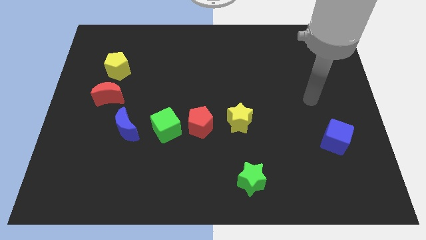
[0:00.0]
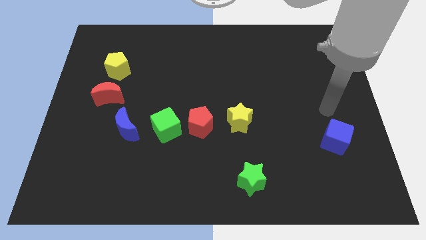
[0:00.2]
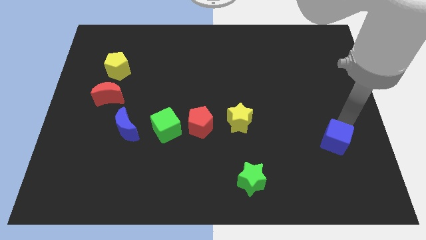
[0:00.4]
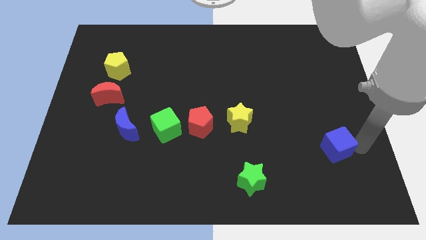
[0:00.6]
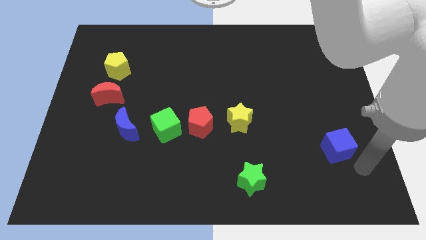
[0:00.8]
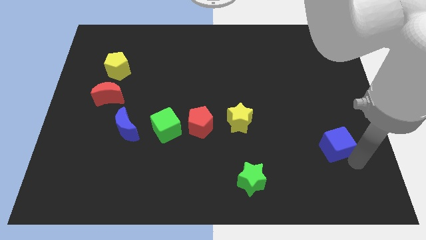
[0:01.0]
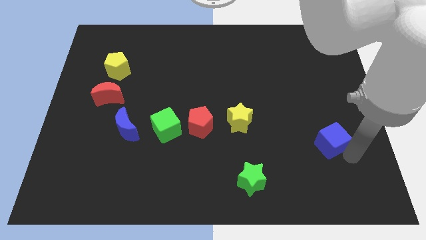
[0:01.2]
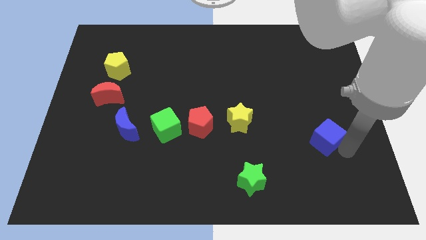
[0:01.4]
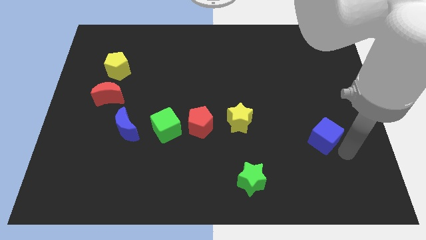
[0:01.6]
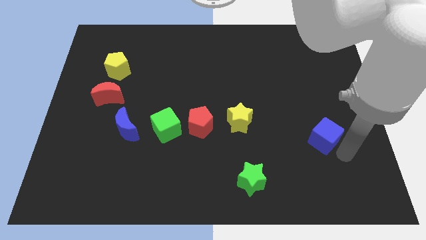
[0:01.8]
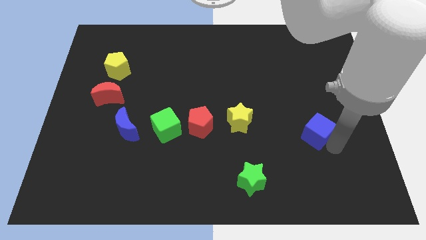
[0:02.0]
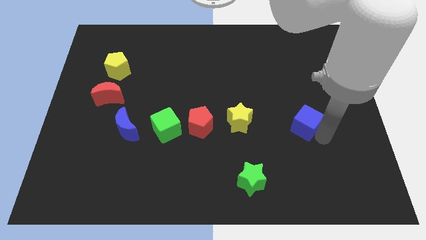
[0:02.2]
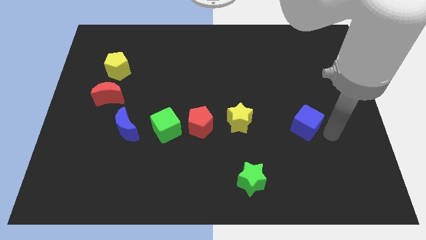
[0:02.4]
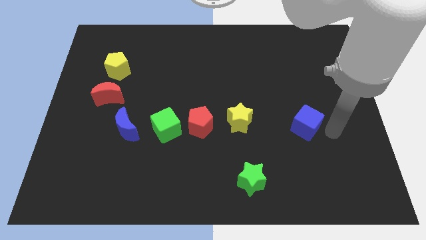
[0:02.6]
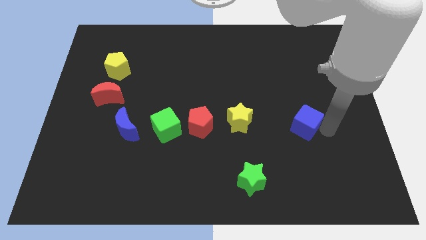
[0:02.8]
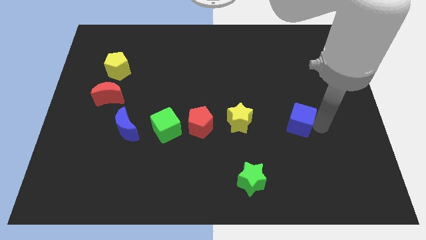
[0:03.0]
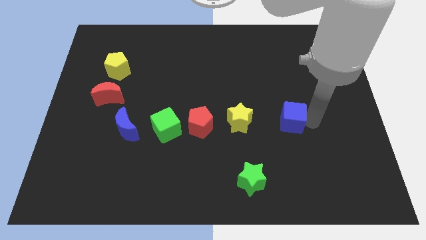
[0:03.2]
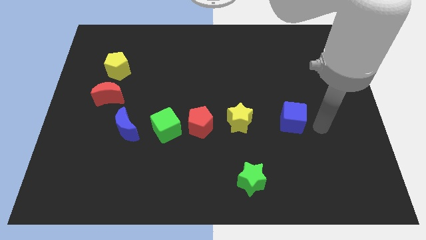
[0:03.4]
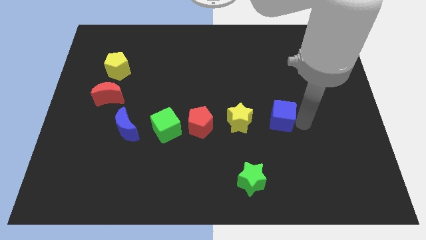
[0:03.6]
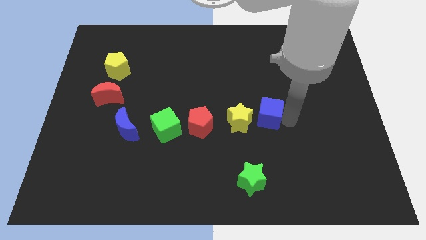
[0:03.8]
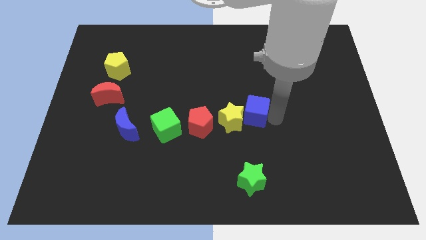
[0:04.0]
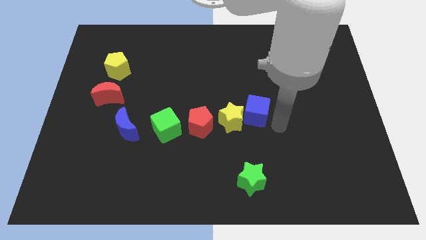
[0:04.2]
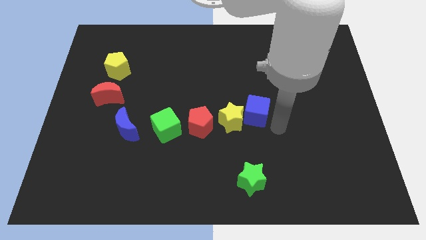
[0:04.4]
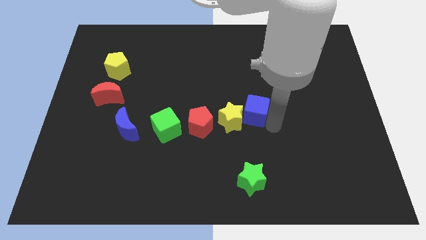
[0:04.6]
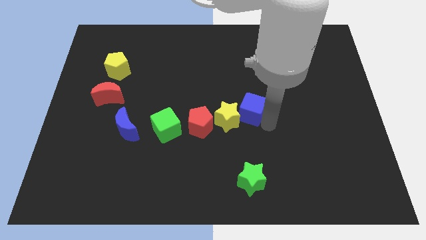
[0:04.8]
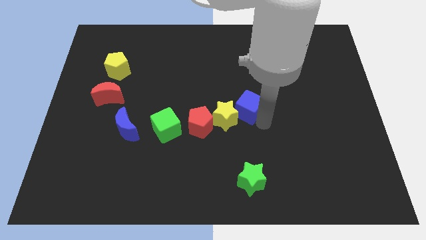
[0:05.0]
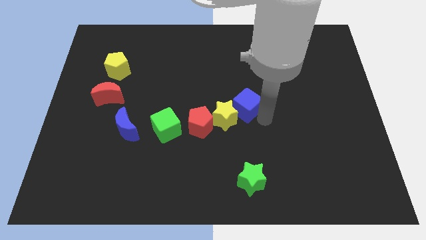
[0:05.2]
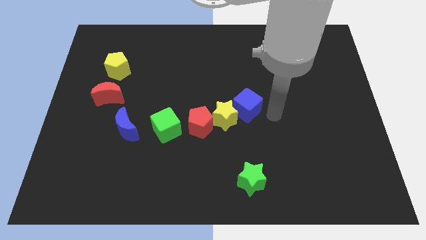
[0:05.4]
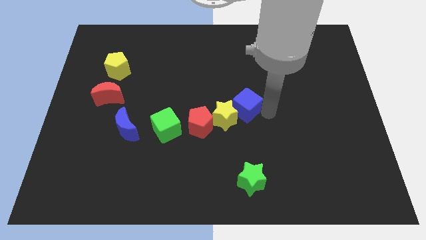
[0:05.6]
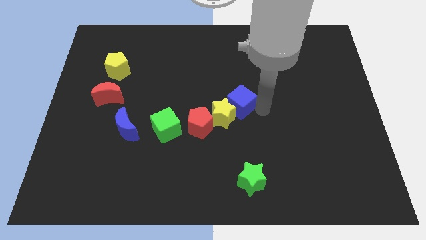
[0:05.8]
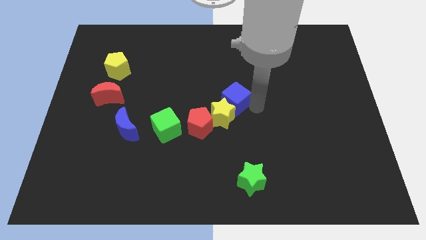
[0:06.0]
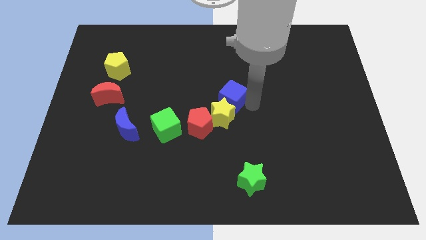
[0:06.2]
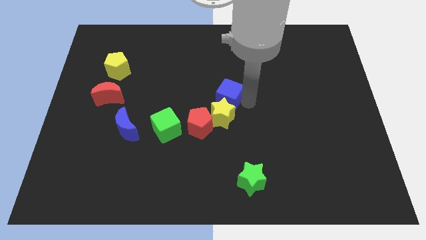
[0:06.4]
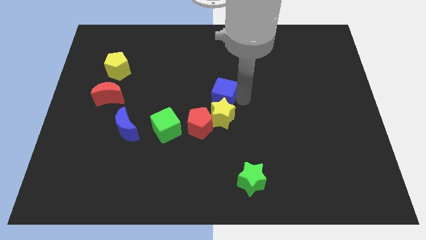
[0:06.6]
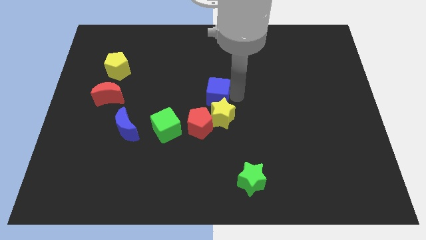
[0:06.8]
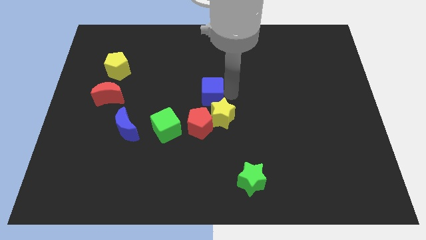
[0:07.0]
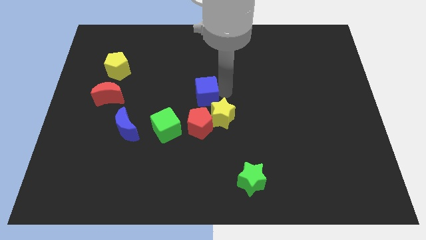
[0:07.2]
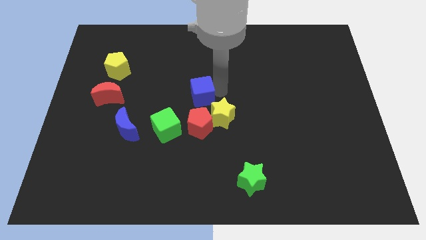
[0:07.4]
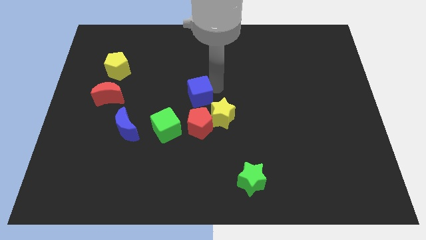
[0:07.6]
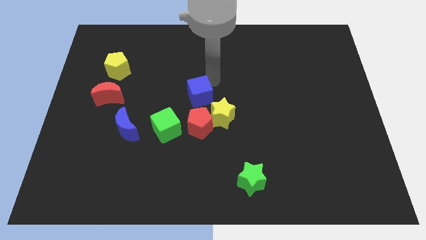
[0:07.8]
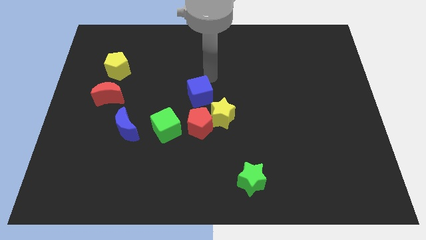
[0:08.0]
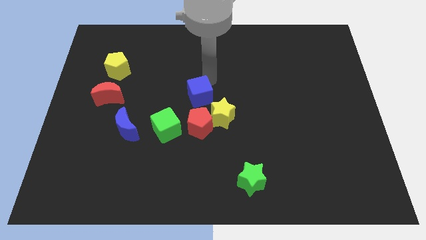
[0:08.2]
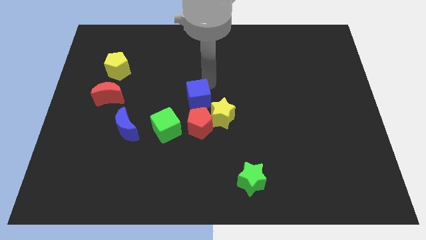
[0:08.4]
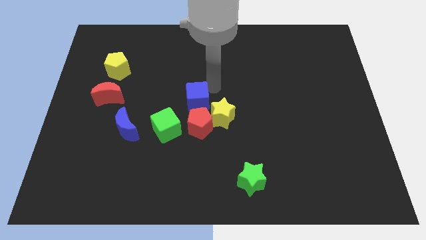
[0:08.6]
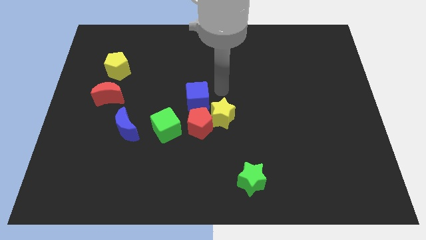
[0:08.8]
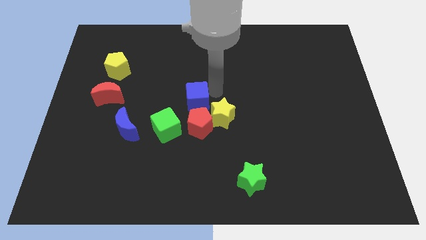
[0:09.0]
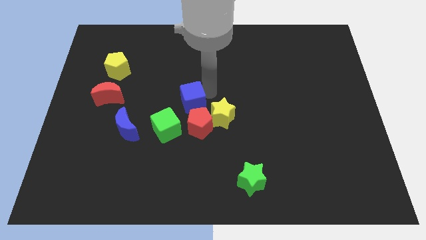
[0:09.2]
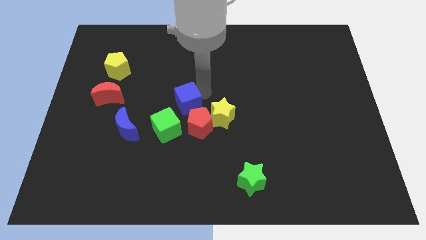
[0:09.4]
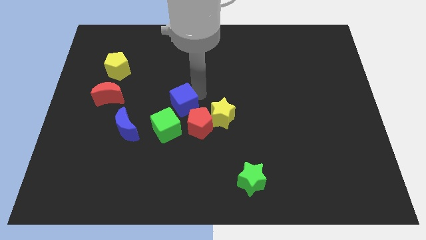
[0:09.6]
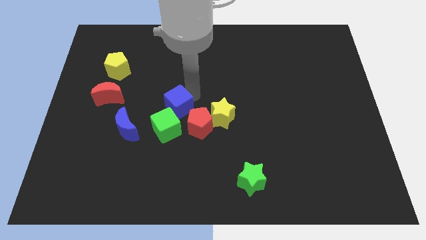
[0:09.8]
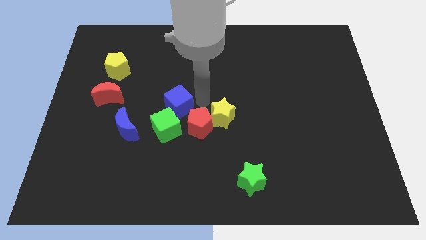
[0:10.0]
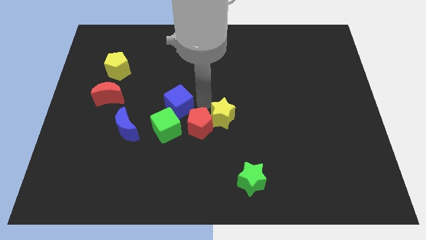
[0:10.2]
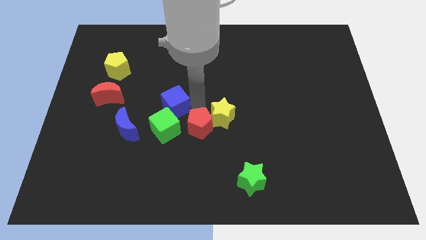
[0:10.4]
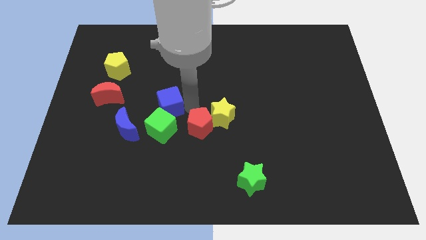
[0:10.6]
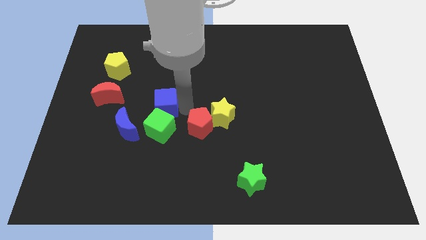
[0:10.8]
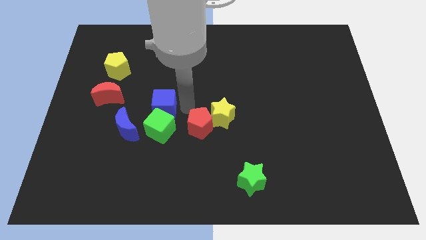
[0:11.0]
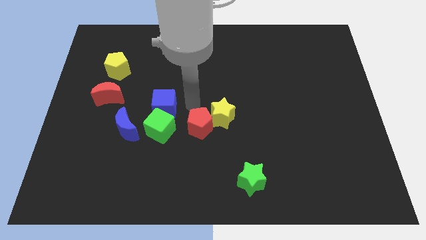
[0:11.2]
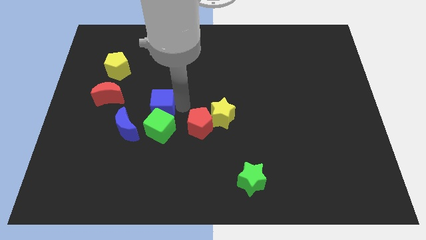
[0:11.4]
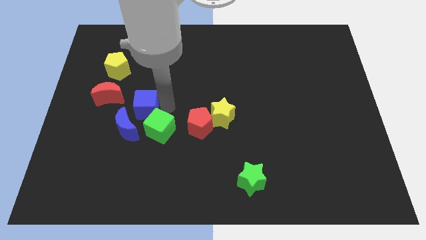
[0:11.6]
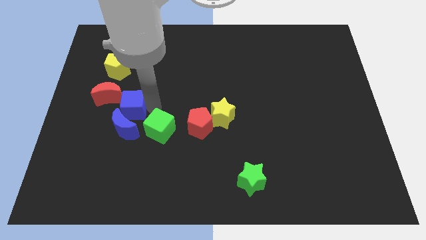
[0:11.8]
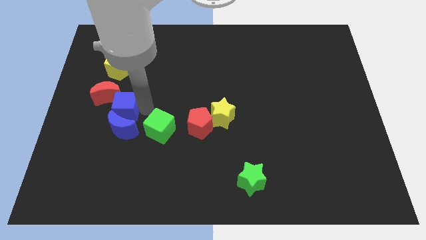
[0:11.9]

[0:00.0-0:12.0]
push the blue cube to the bottom of the yellow pentagon

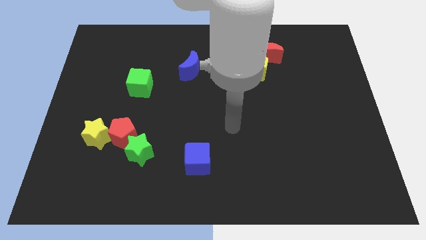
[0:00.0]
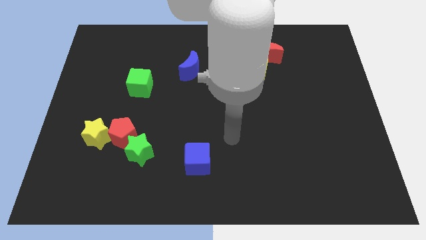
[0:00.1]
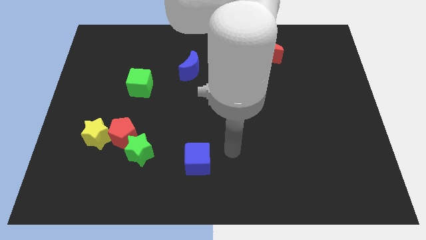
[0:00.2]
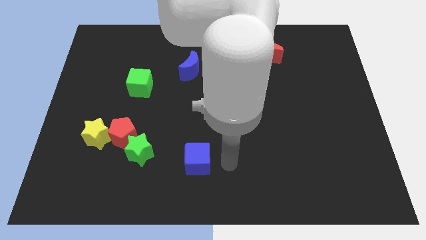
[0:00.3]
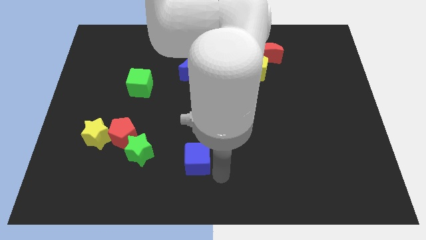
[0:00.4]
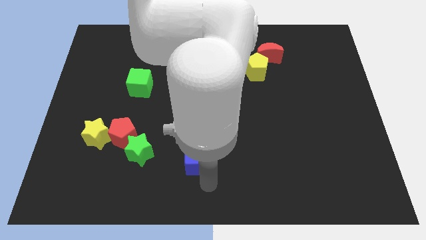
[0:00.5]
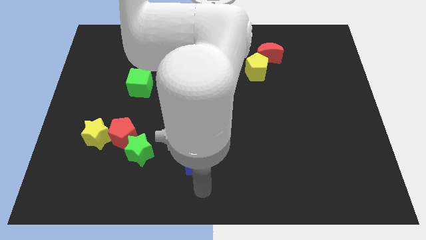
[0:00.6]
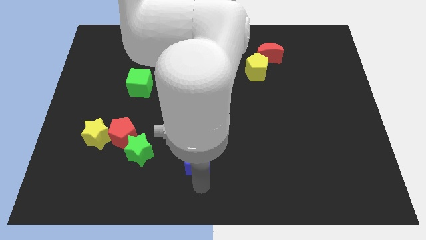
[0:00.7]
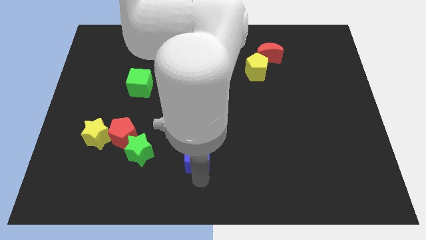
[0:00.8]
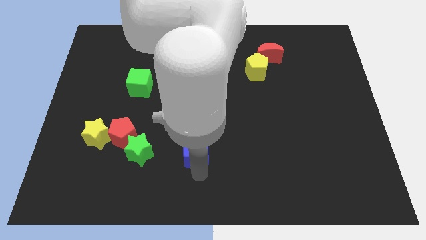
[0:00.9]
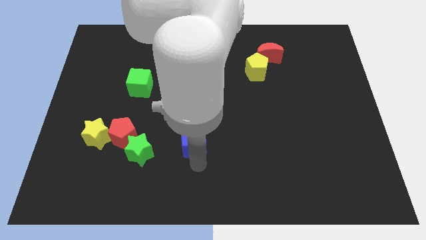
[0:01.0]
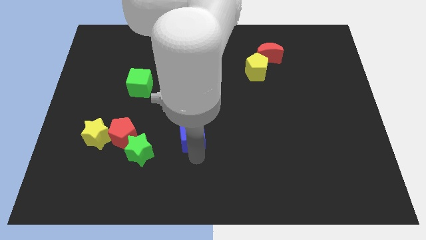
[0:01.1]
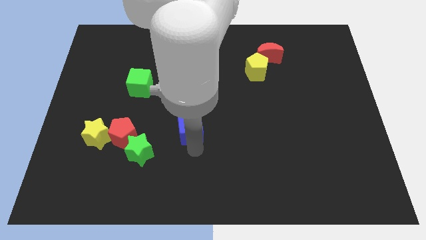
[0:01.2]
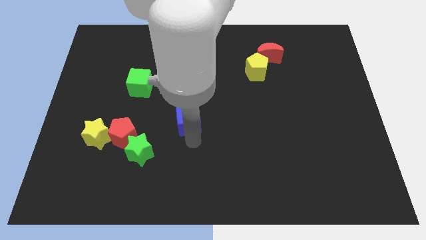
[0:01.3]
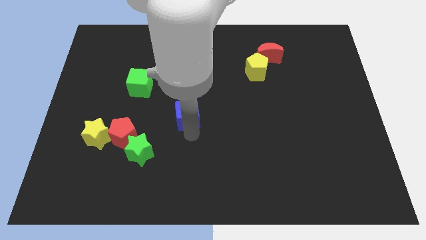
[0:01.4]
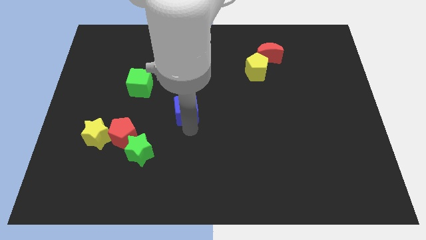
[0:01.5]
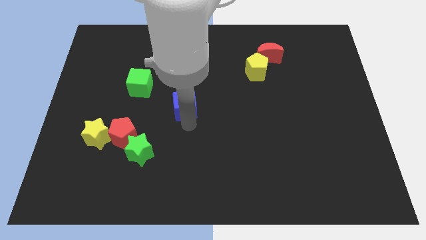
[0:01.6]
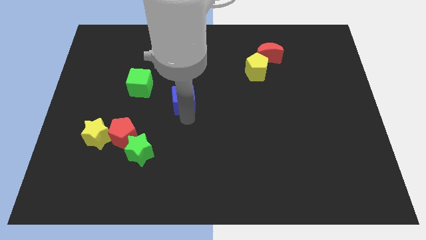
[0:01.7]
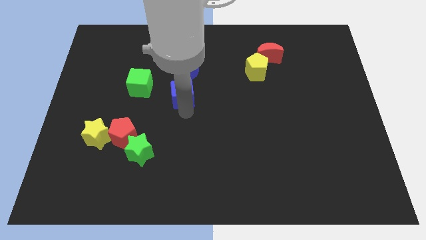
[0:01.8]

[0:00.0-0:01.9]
push the blue cube to the right of the green cube
